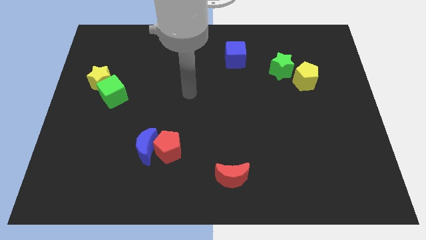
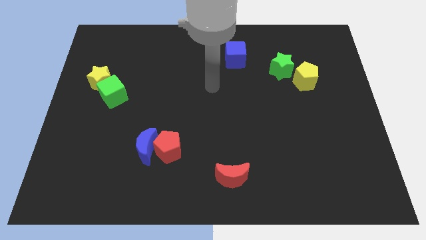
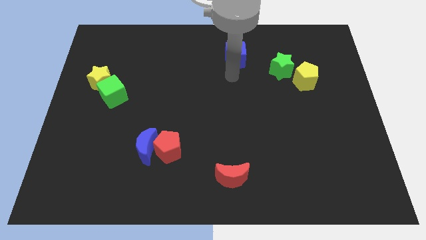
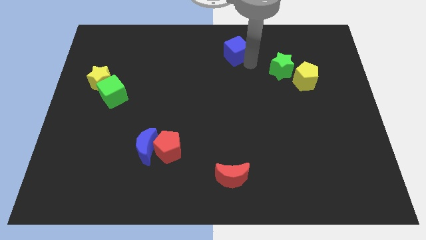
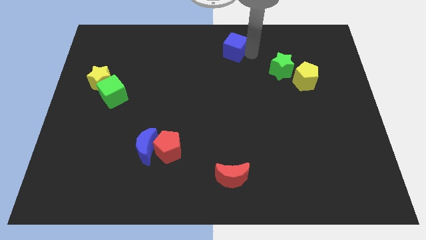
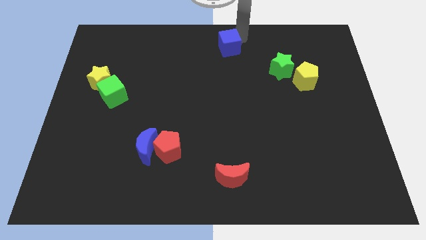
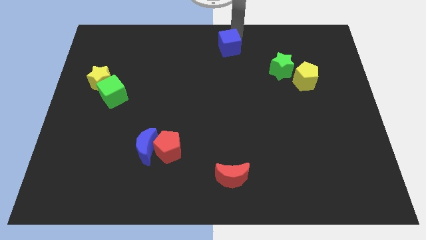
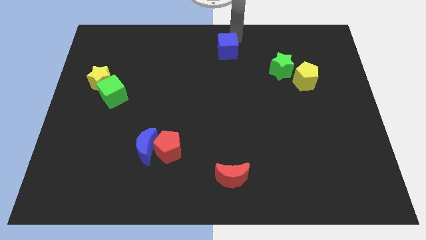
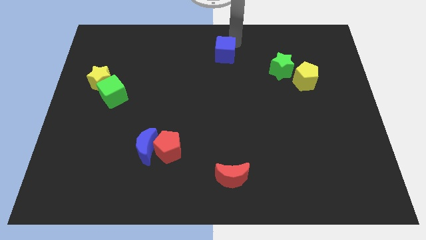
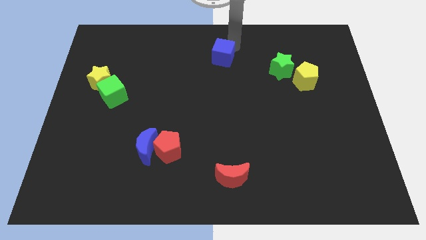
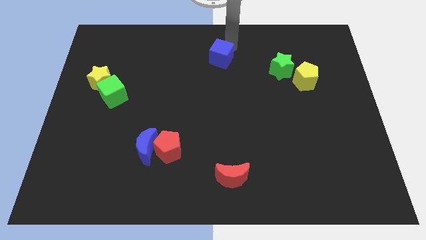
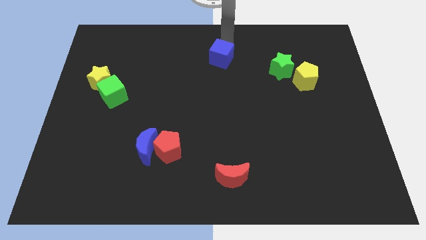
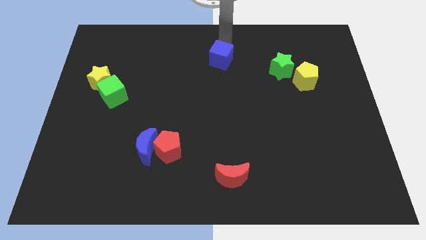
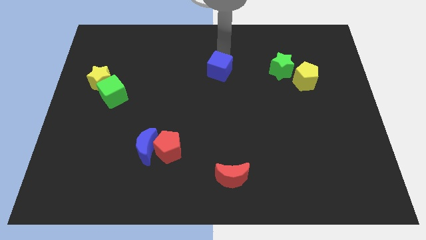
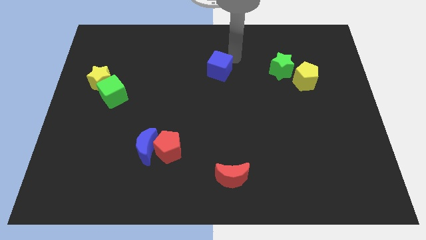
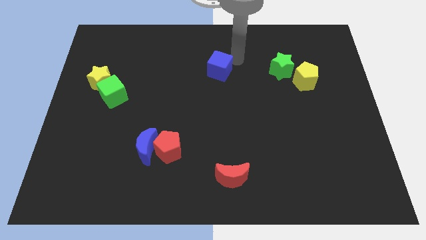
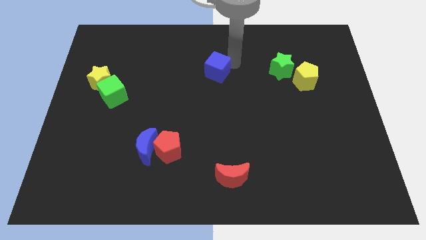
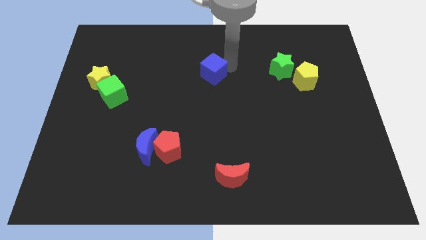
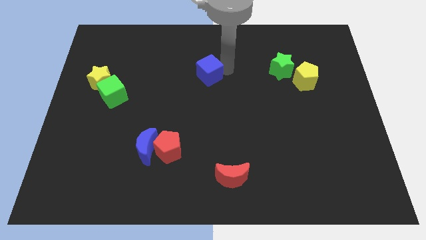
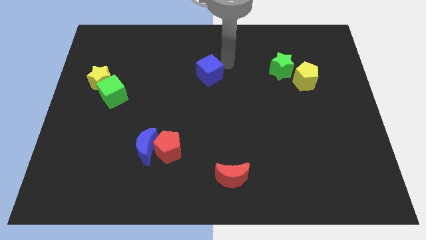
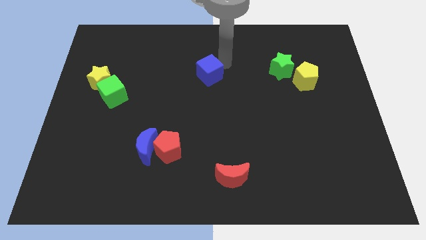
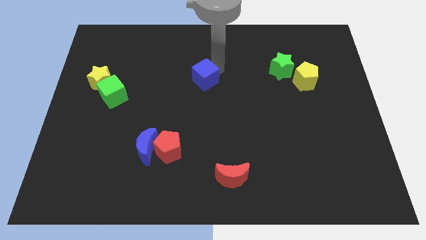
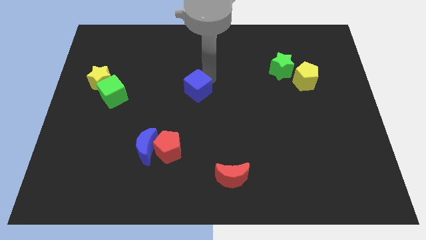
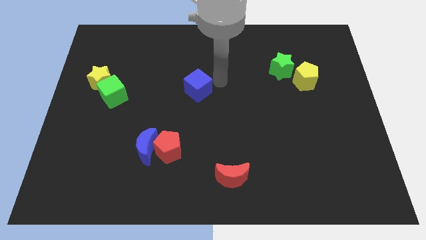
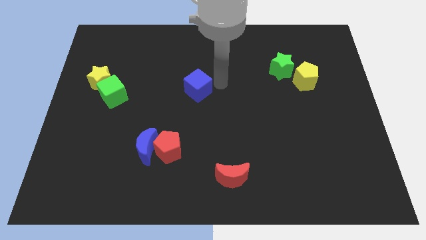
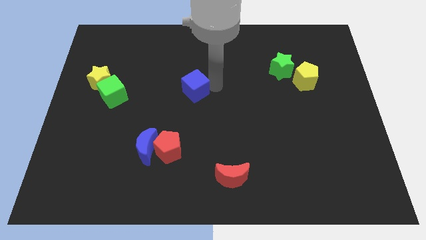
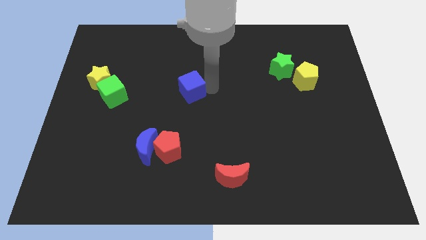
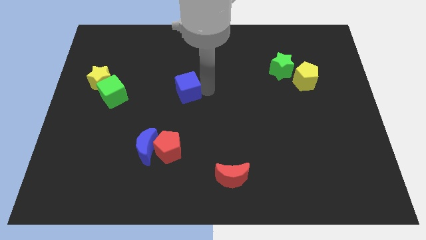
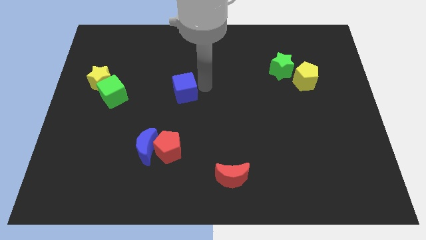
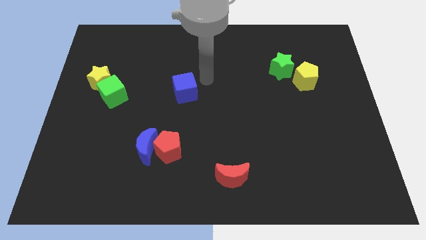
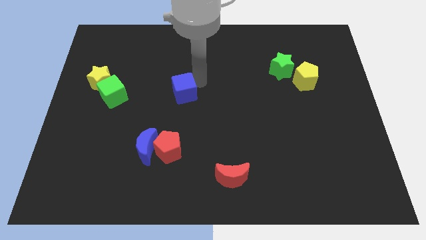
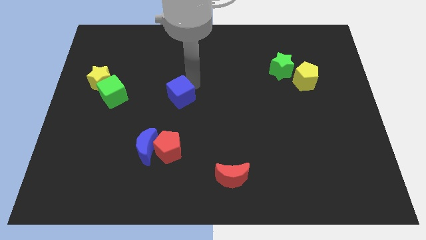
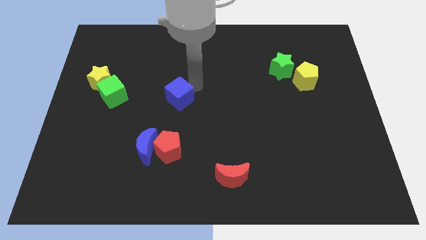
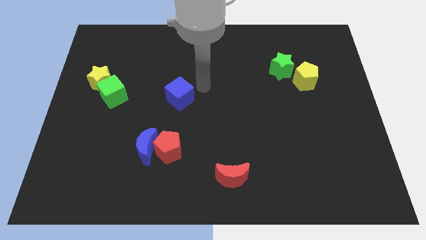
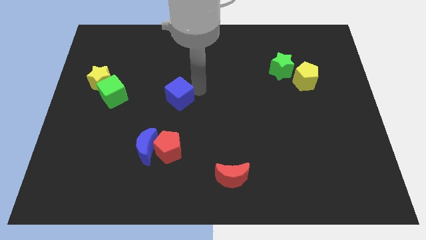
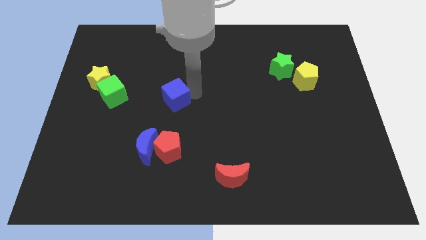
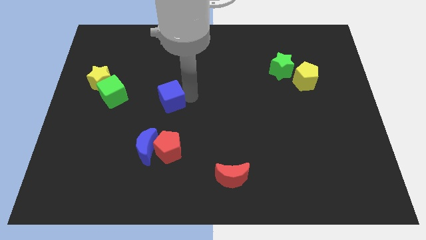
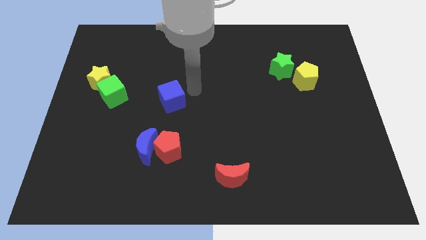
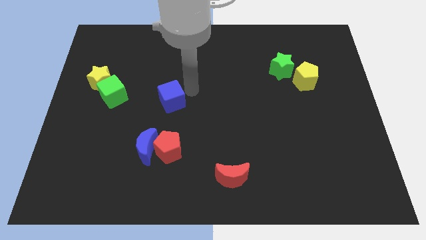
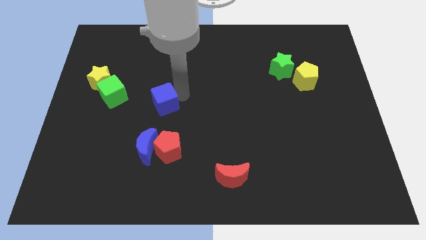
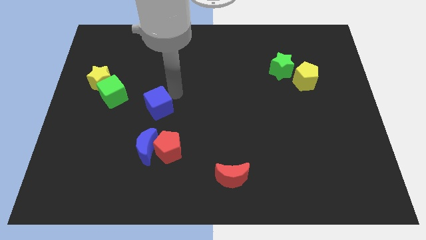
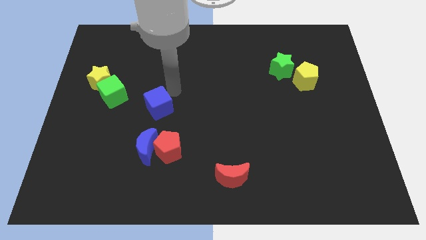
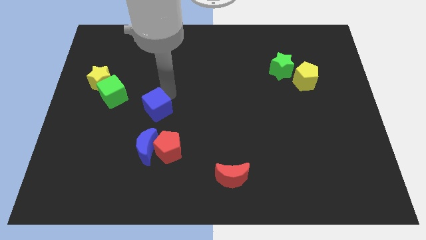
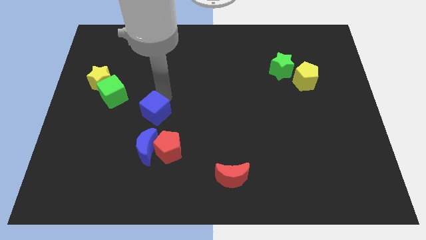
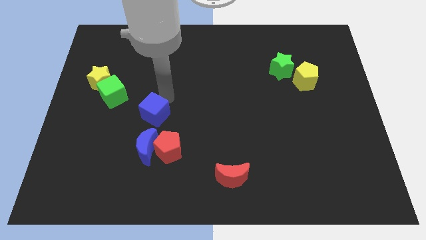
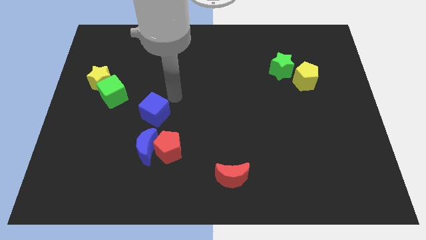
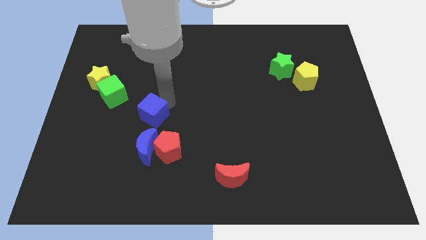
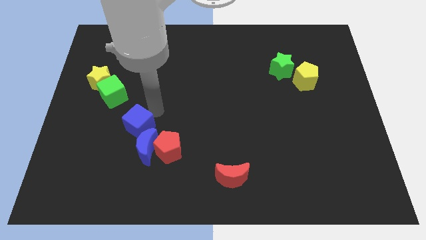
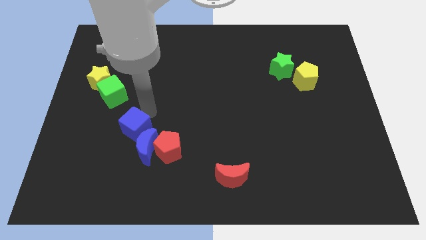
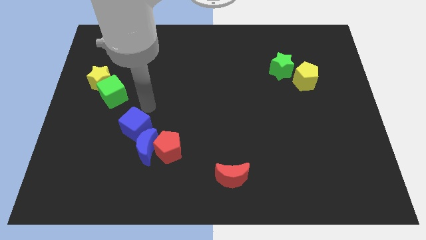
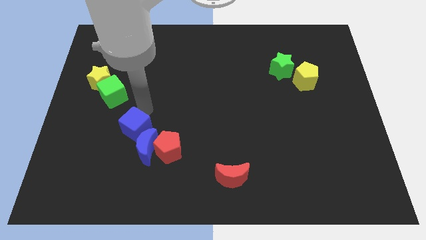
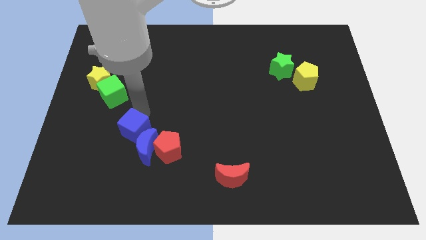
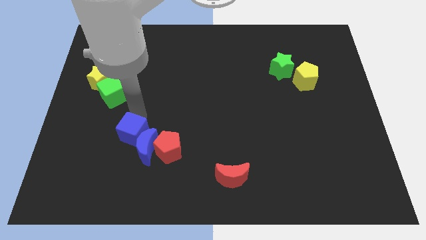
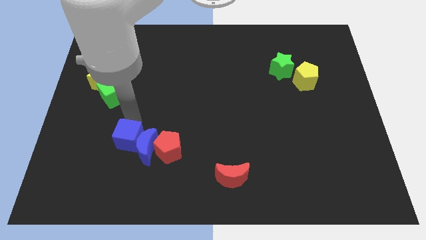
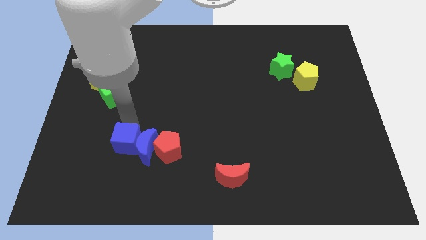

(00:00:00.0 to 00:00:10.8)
push the blue cube diagonally down and to the left of the blue moon

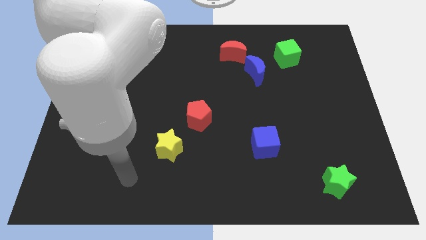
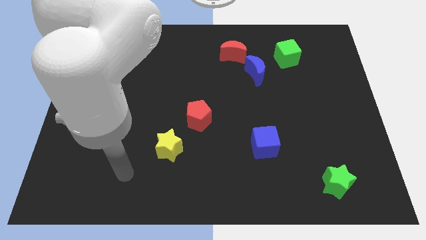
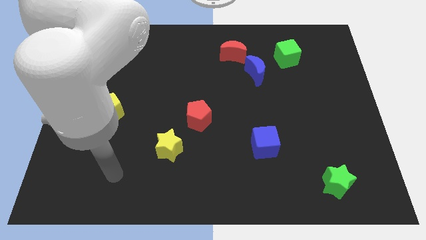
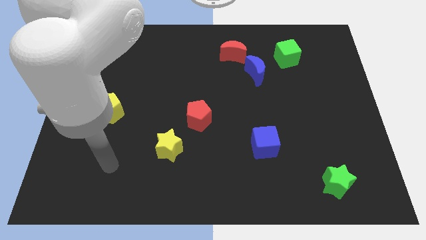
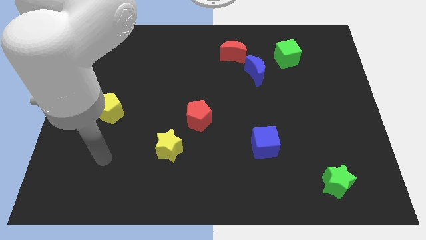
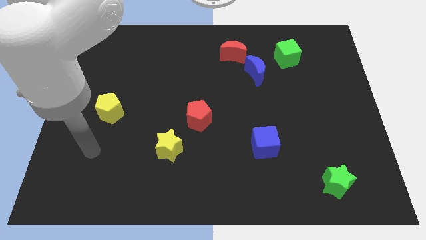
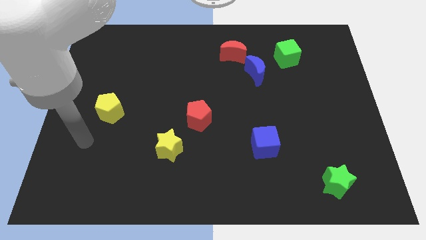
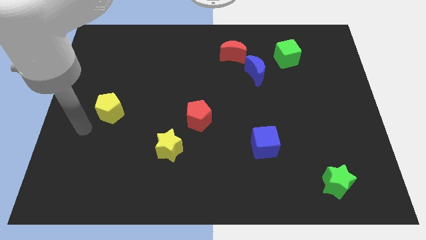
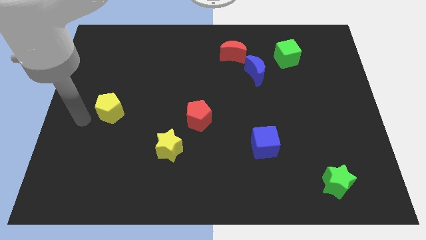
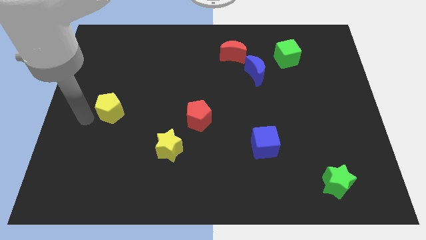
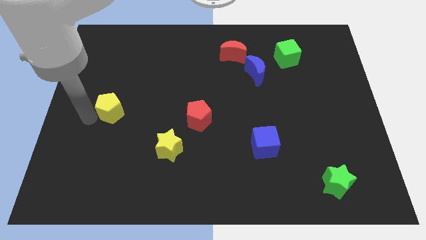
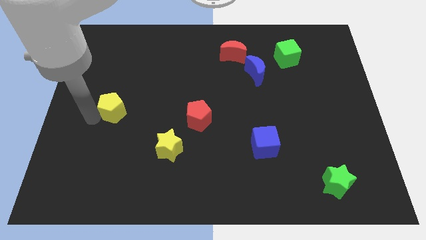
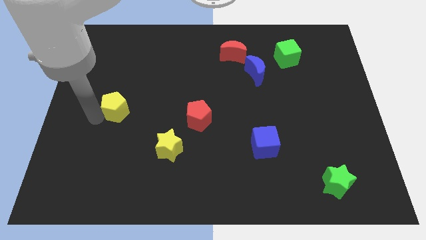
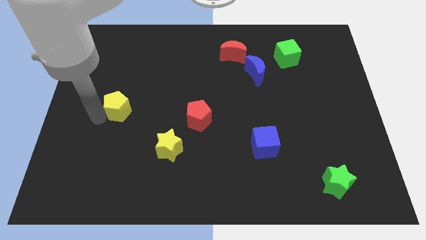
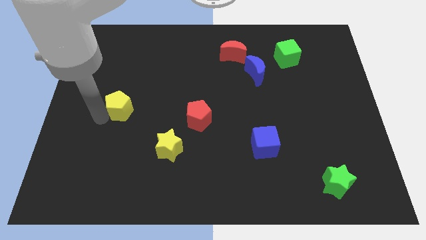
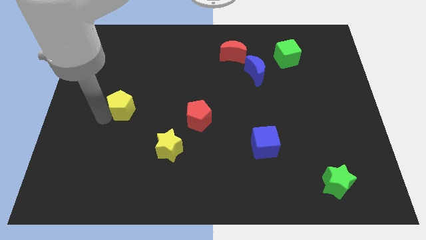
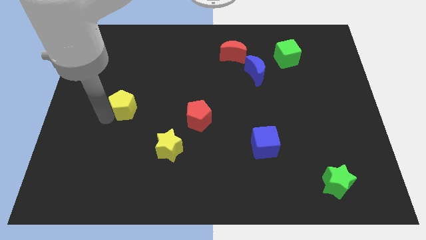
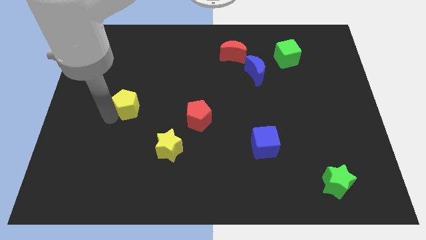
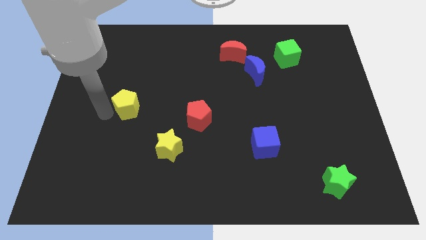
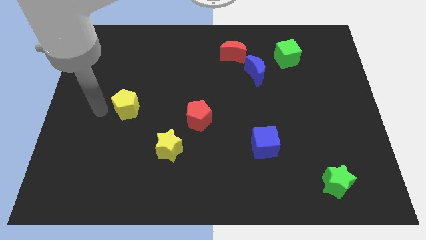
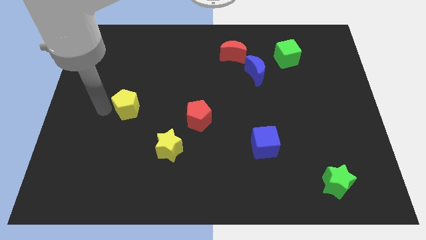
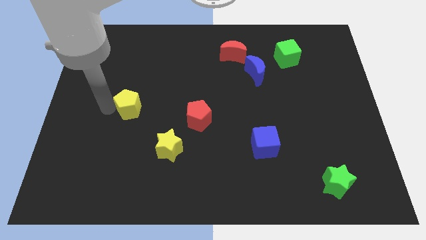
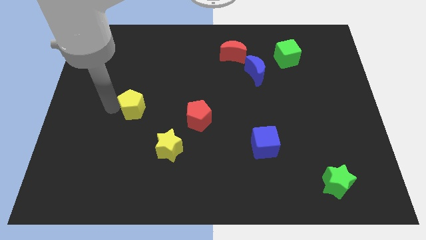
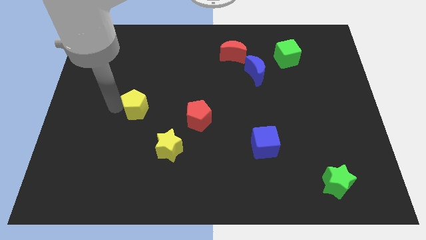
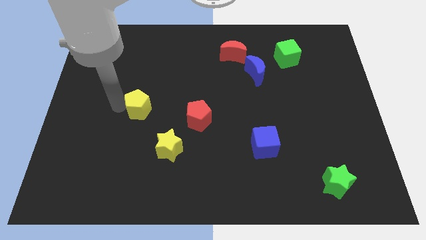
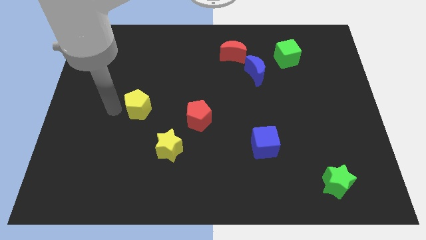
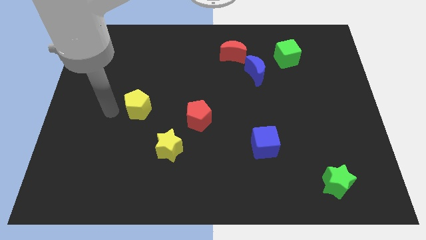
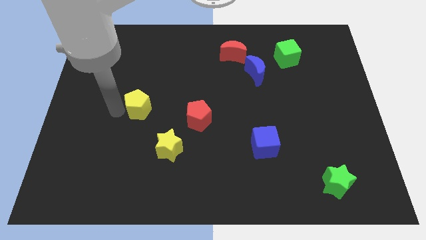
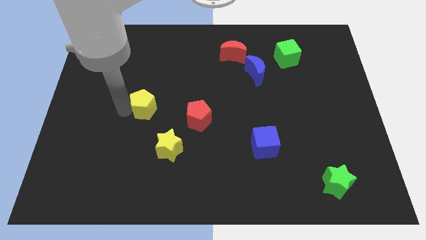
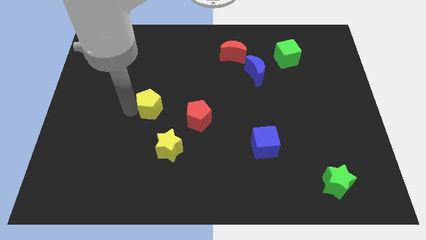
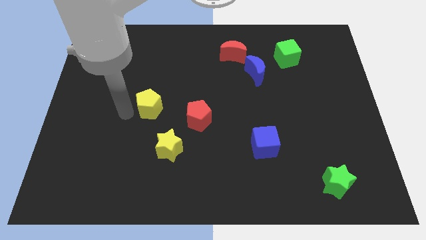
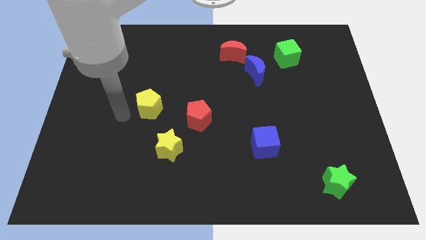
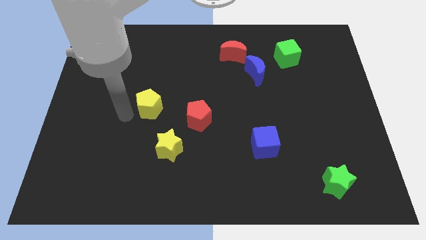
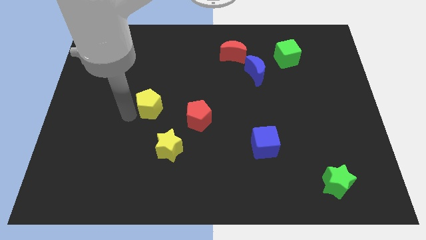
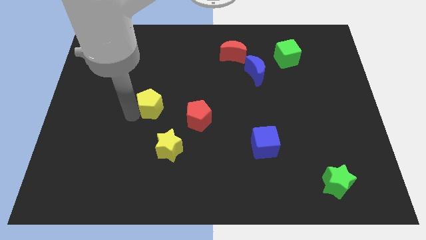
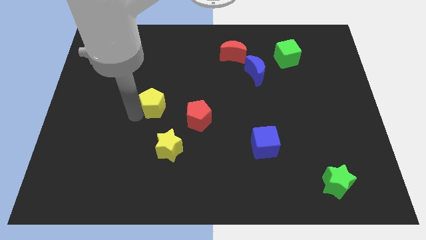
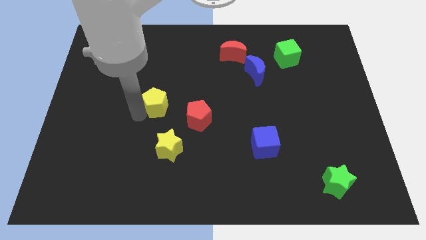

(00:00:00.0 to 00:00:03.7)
put the yellow pentagon to the top left of the red pentagon
